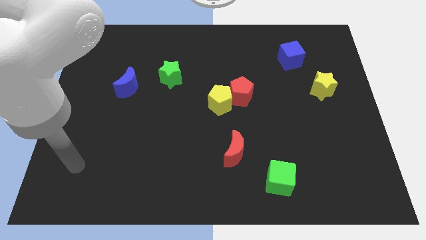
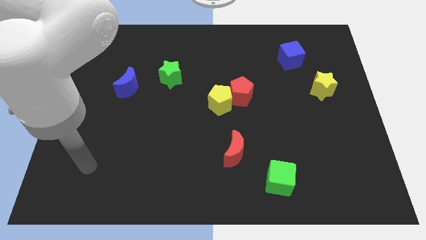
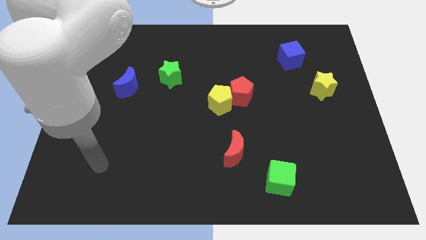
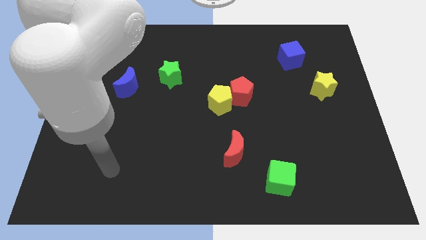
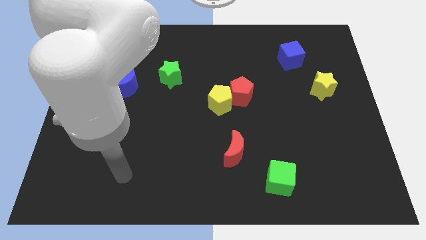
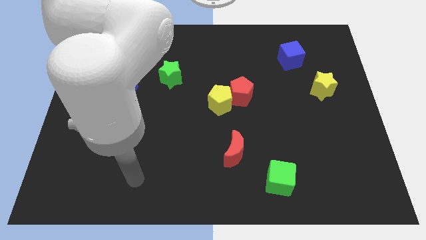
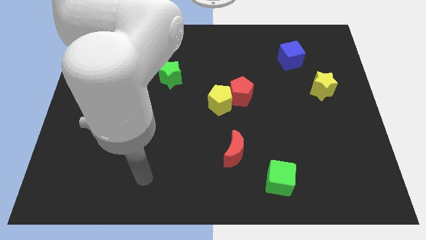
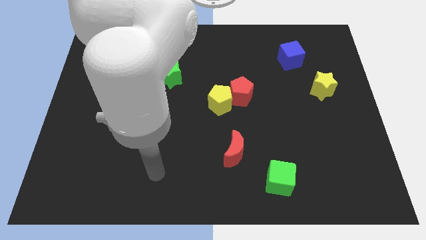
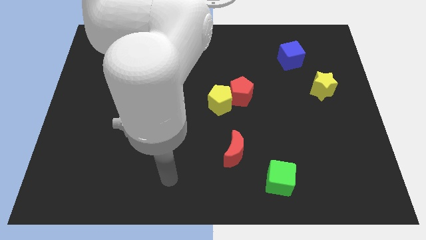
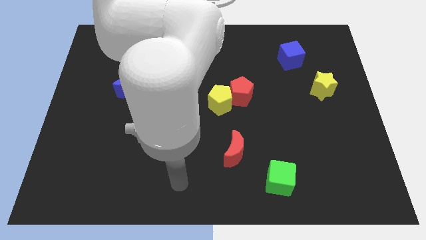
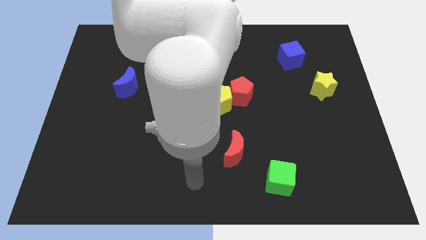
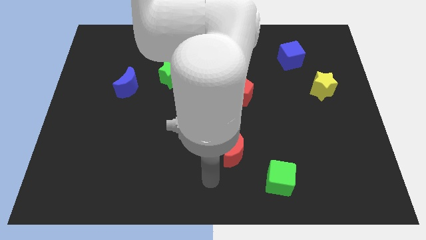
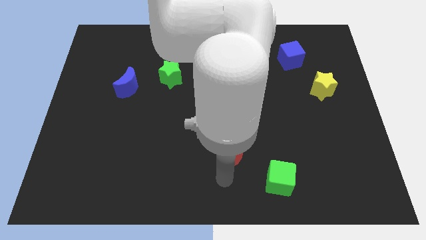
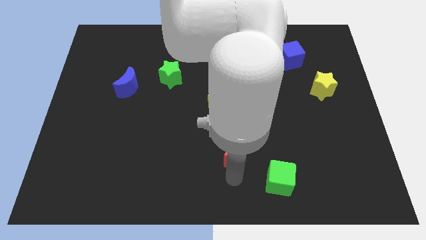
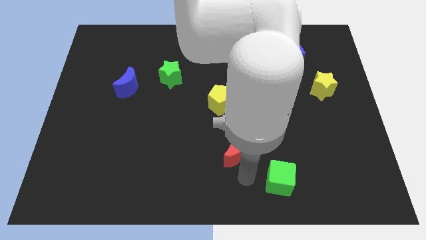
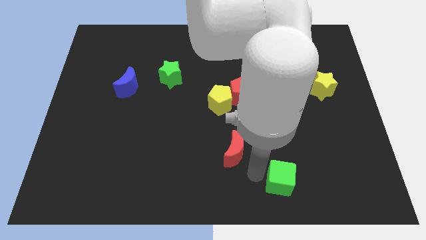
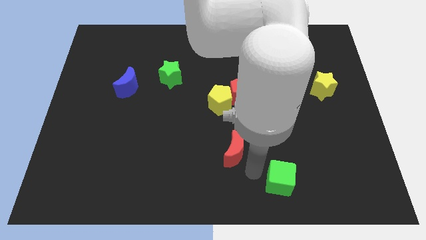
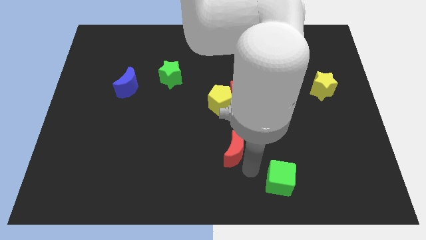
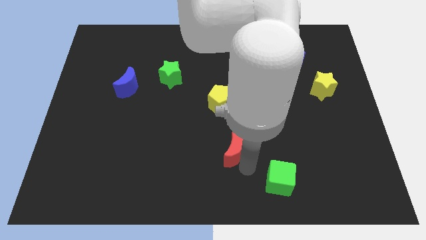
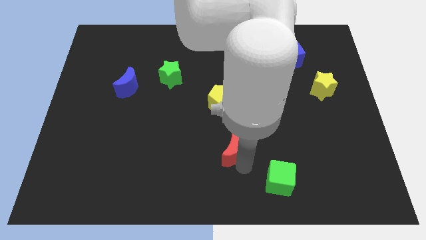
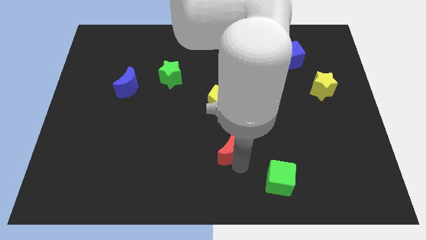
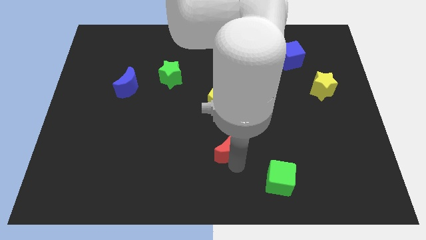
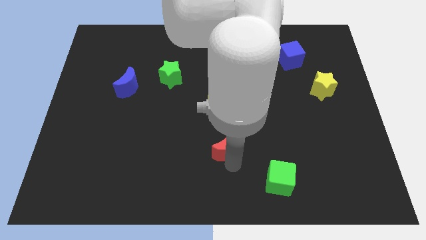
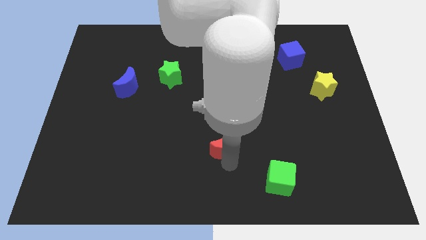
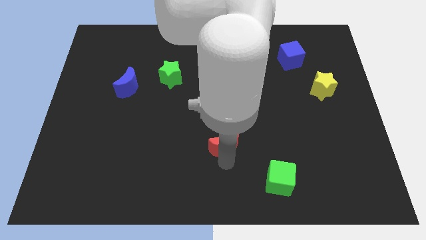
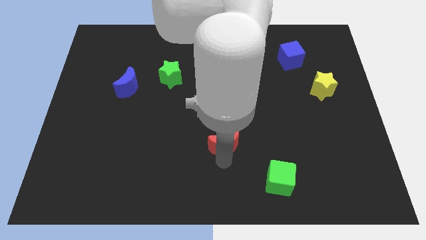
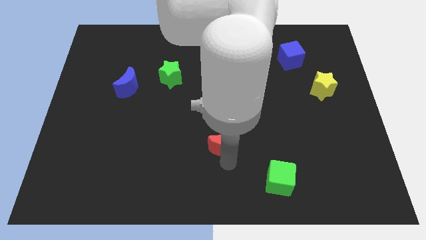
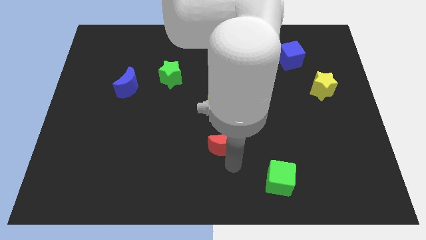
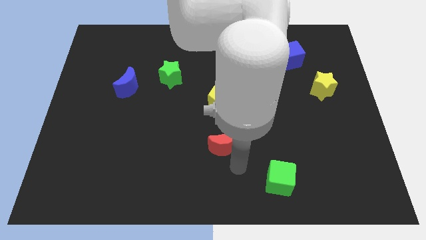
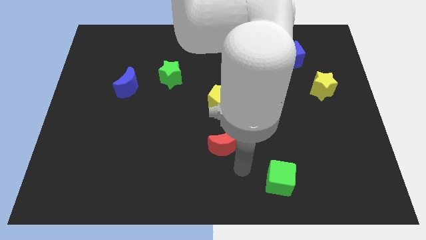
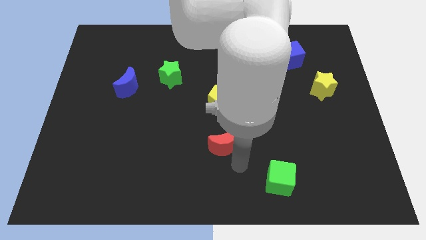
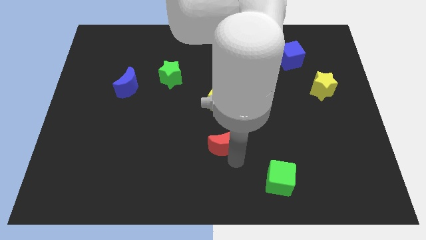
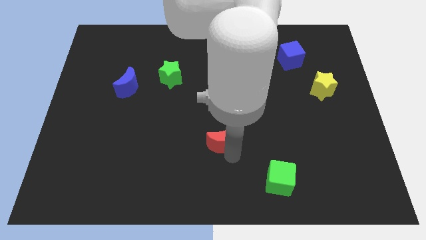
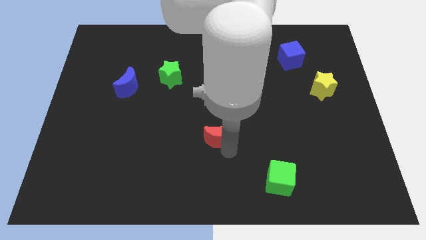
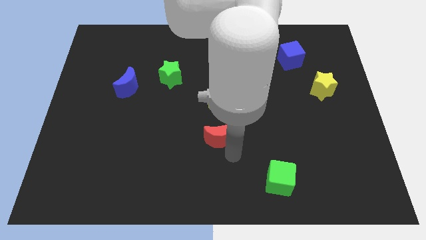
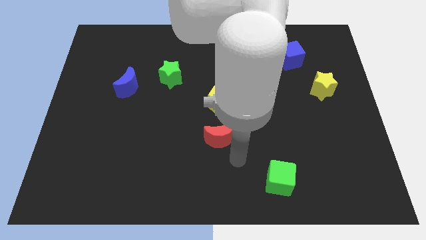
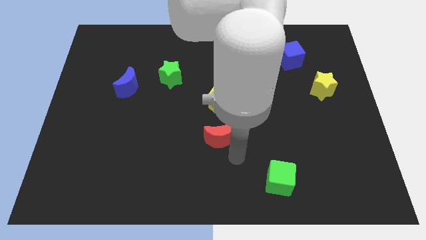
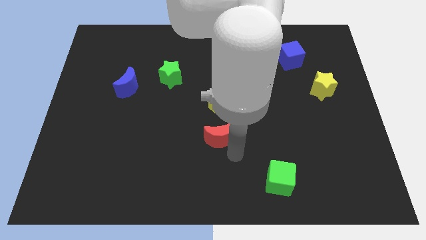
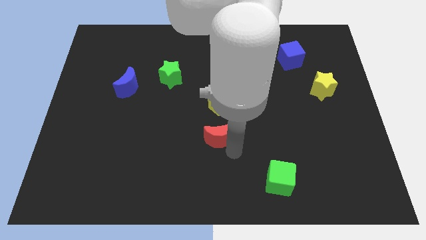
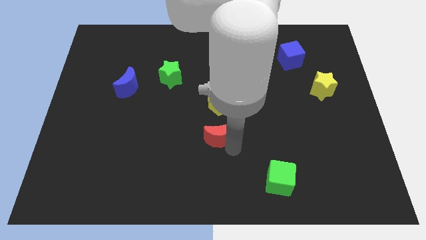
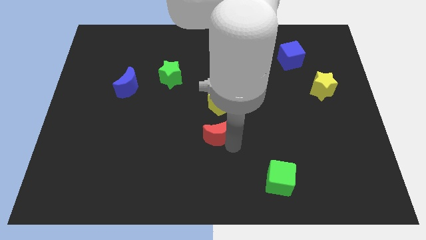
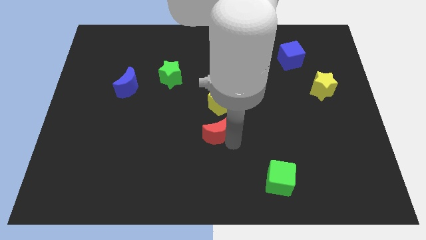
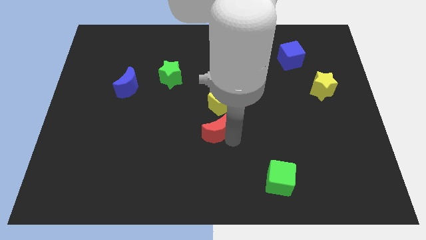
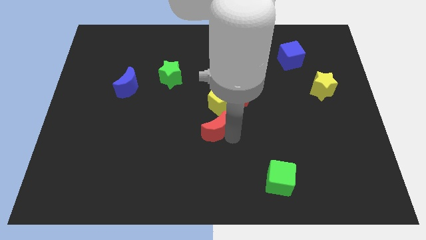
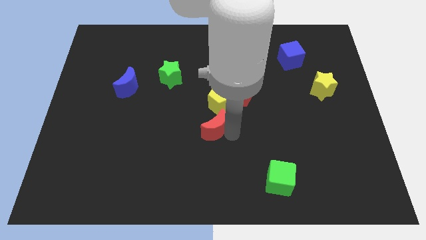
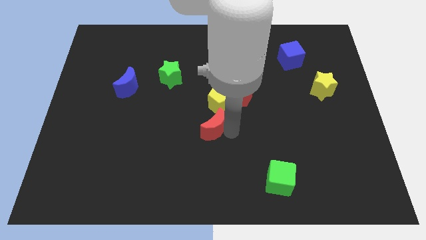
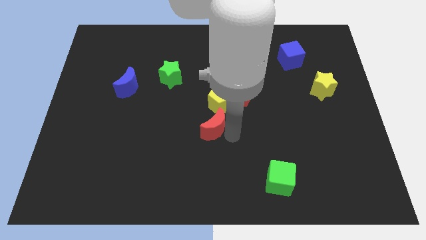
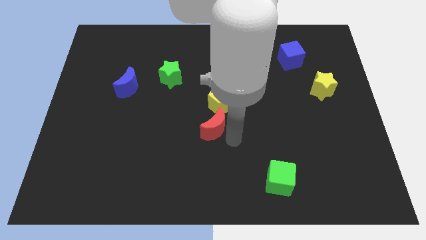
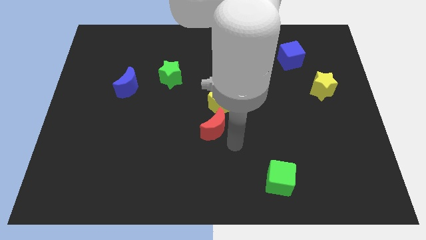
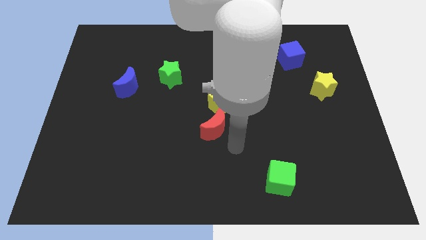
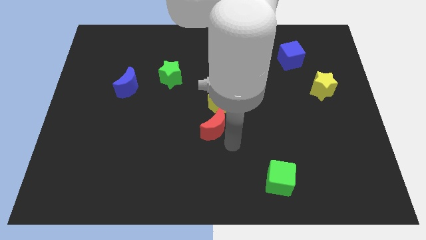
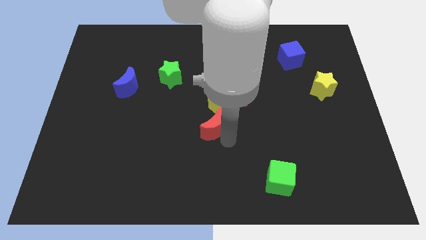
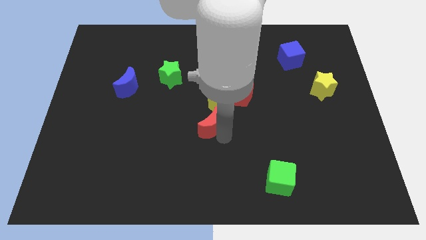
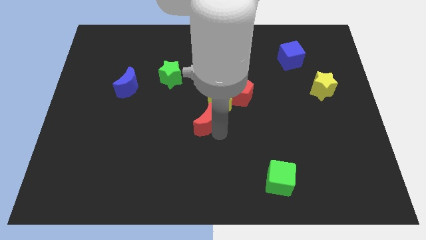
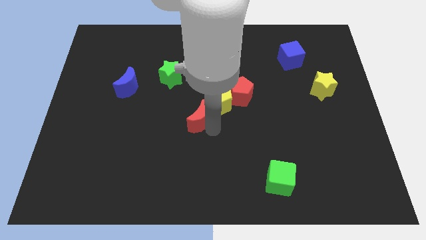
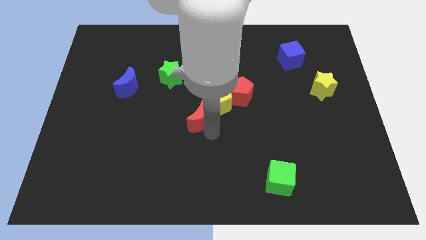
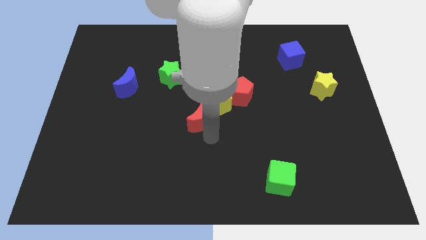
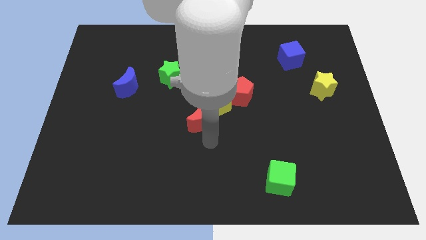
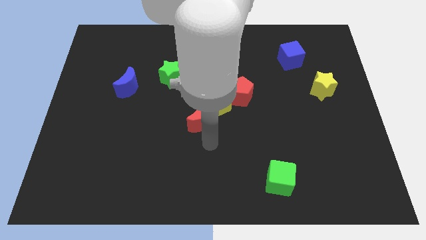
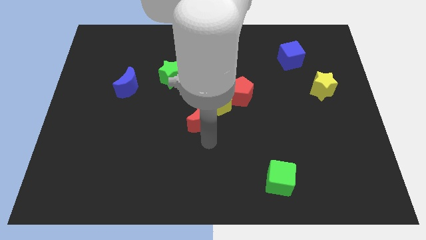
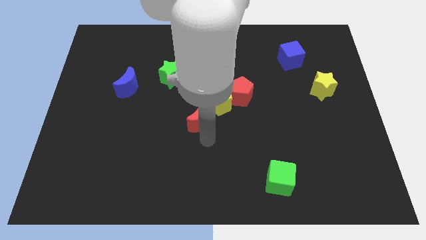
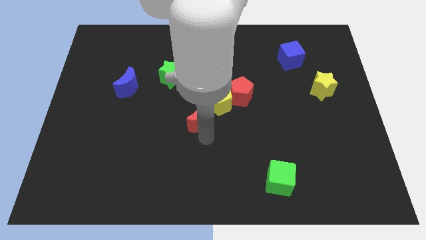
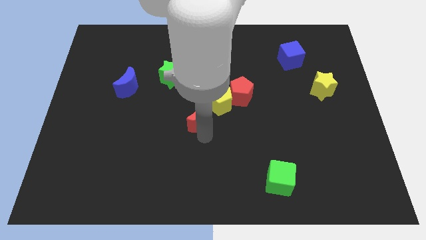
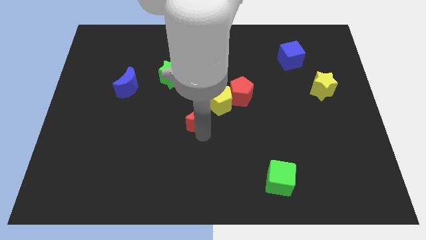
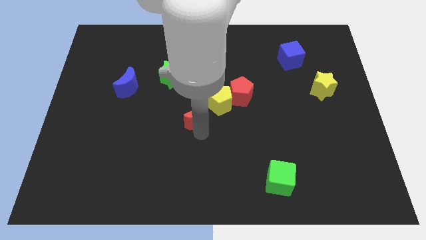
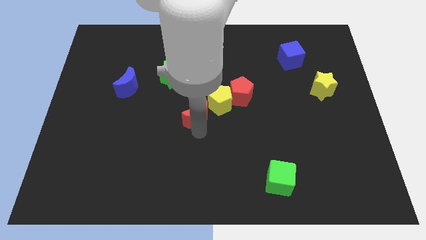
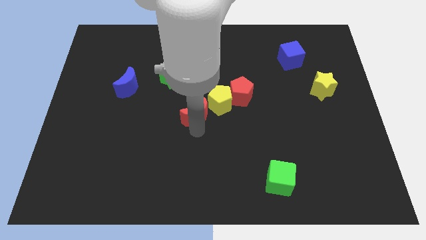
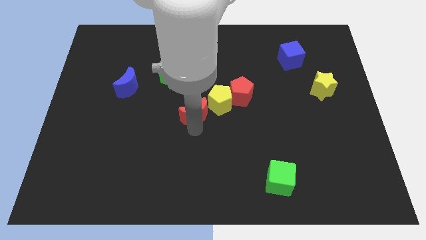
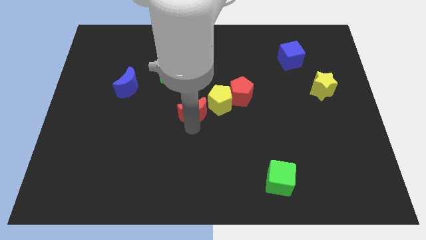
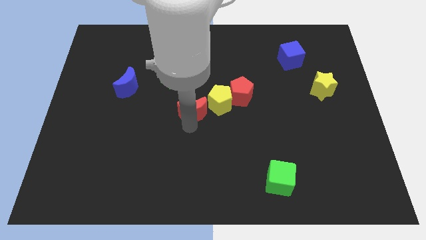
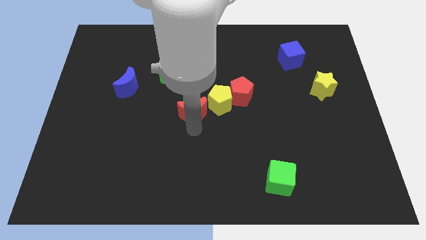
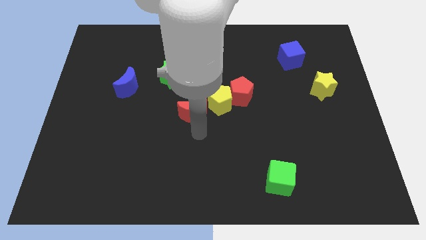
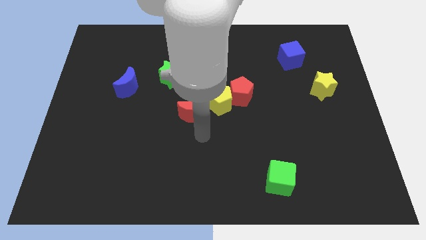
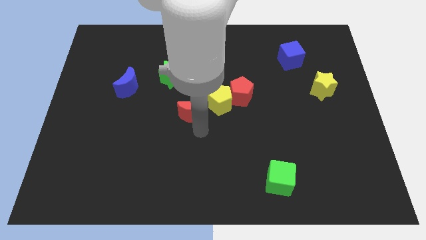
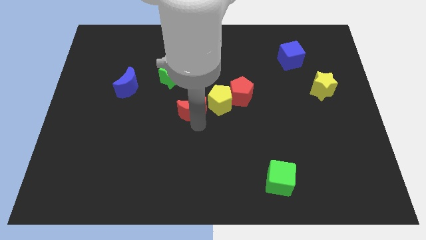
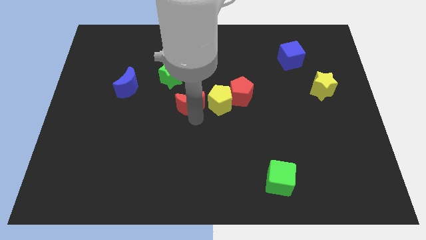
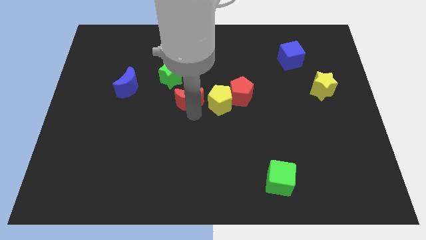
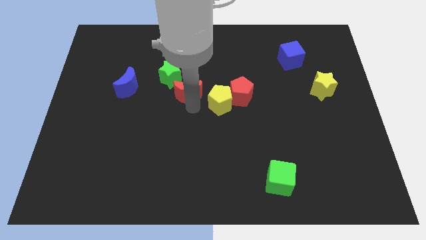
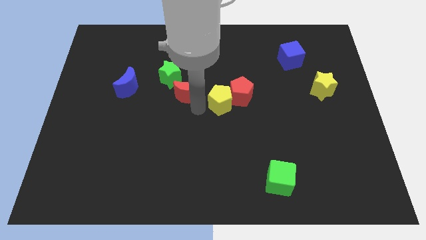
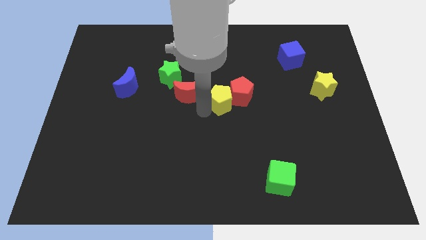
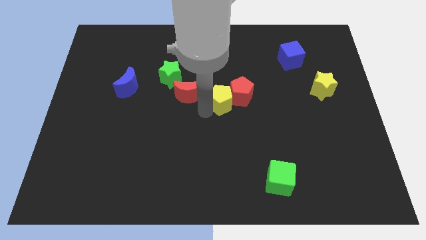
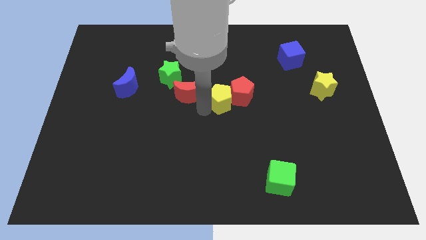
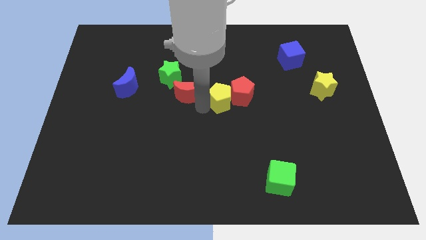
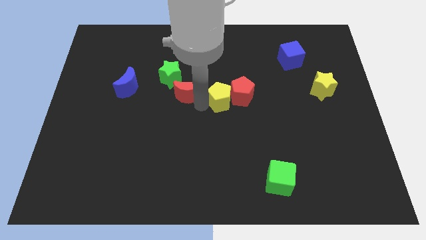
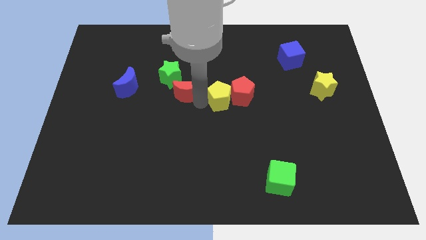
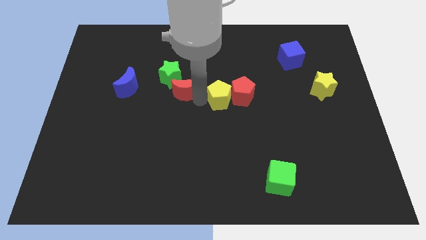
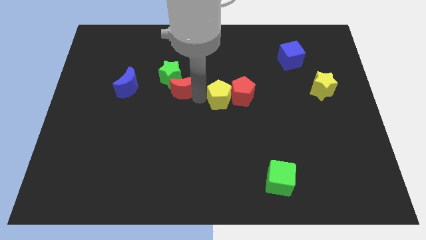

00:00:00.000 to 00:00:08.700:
put the red moon next to the green star
